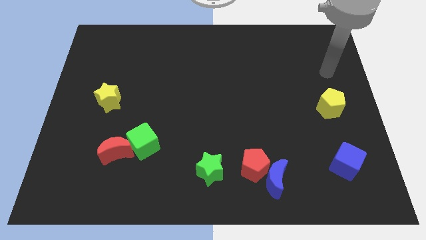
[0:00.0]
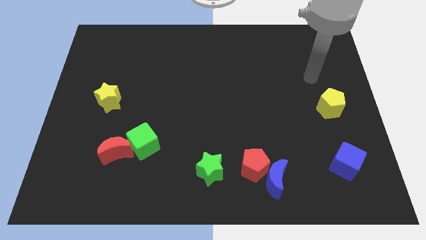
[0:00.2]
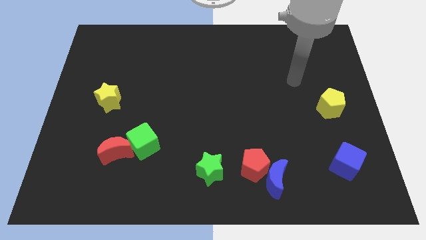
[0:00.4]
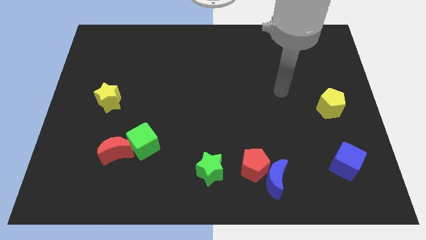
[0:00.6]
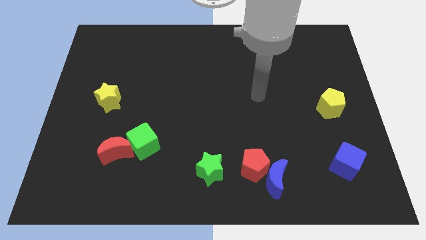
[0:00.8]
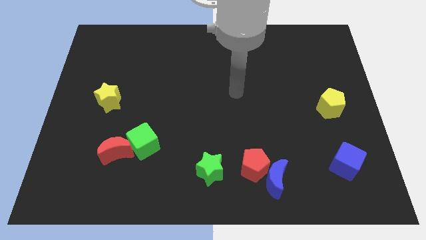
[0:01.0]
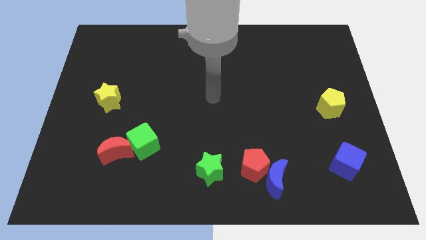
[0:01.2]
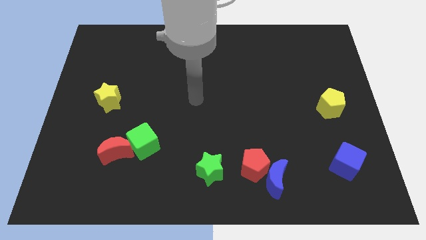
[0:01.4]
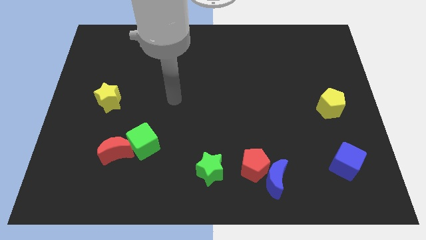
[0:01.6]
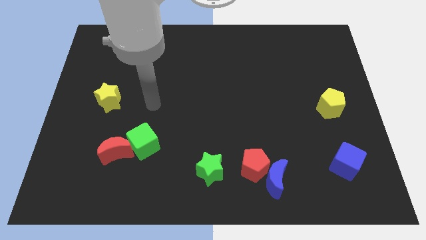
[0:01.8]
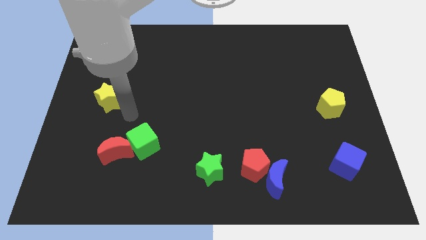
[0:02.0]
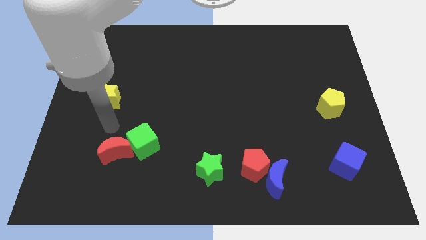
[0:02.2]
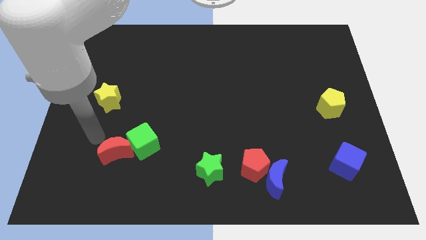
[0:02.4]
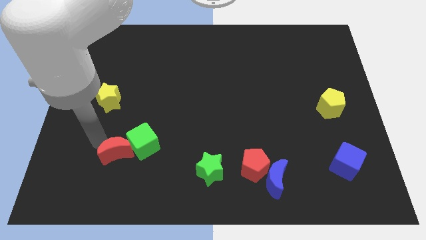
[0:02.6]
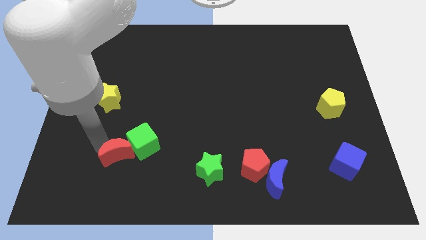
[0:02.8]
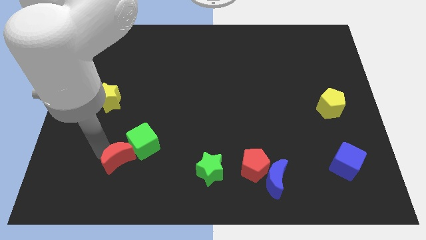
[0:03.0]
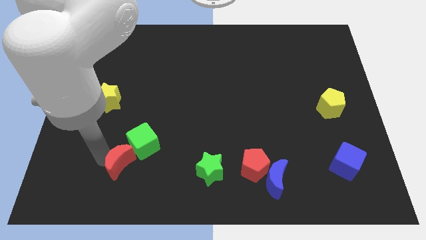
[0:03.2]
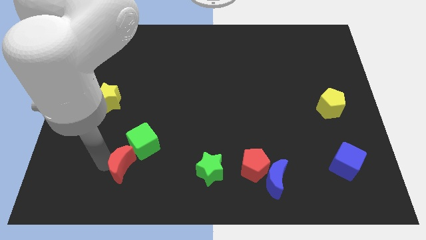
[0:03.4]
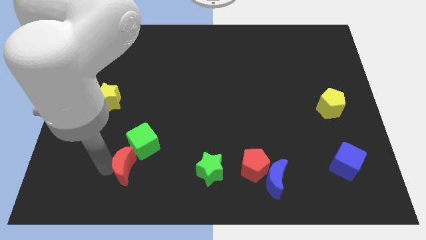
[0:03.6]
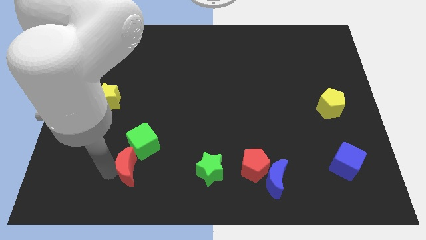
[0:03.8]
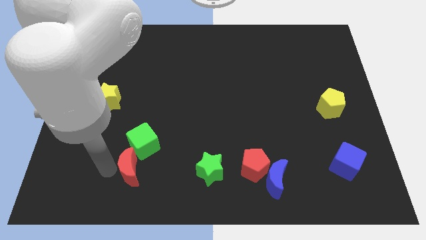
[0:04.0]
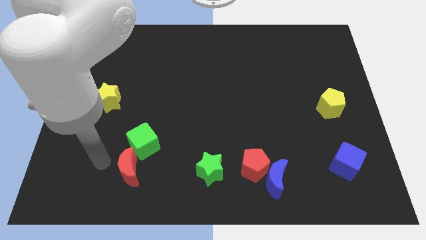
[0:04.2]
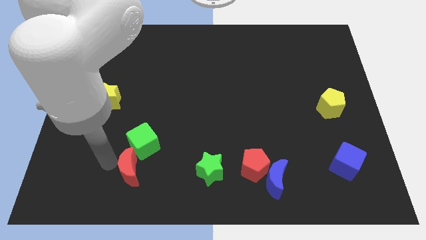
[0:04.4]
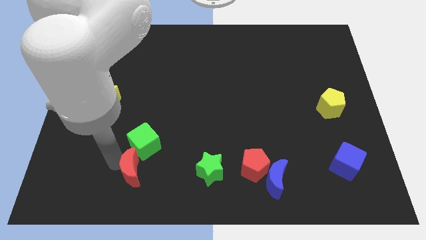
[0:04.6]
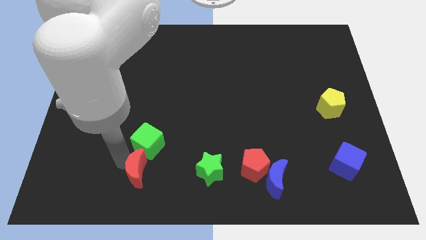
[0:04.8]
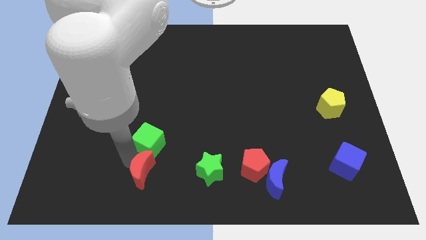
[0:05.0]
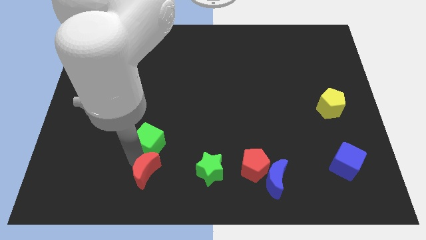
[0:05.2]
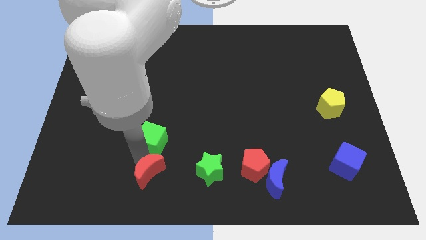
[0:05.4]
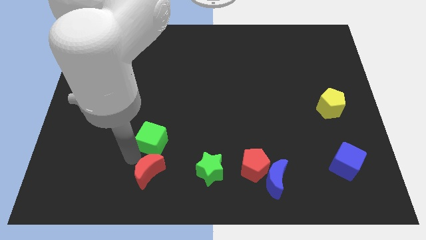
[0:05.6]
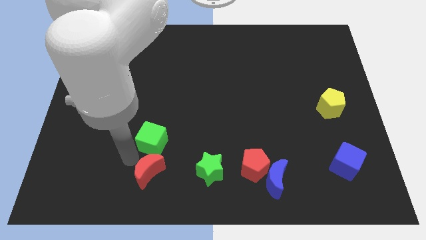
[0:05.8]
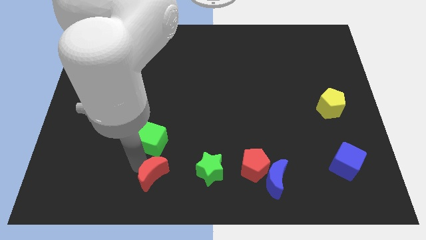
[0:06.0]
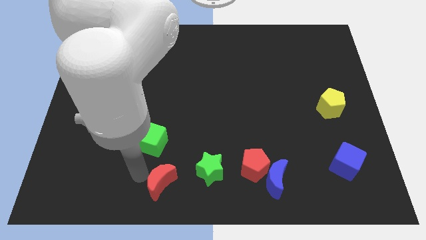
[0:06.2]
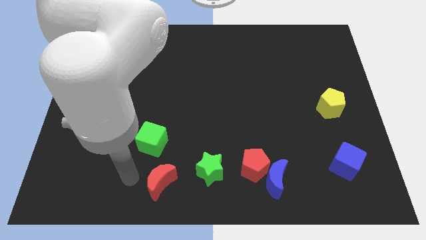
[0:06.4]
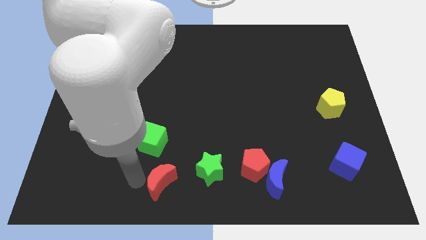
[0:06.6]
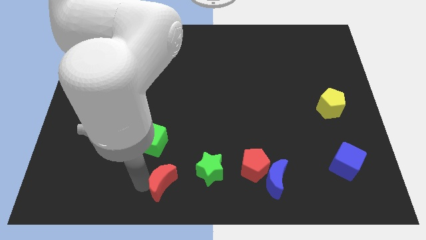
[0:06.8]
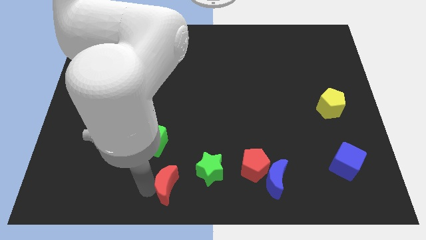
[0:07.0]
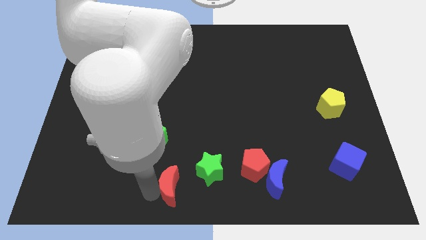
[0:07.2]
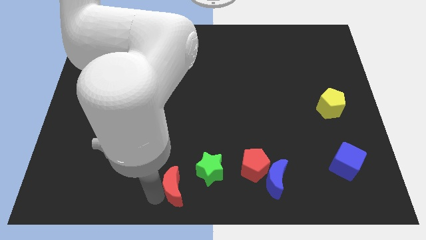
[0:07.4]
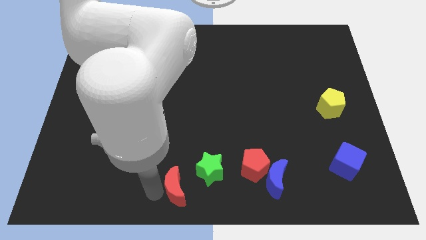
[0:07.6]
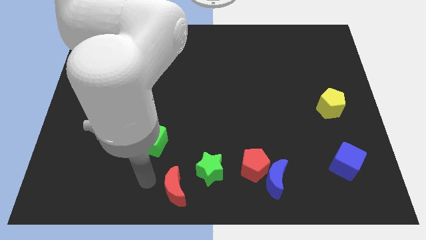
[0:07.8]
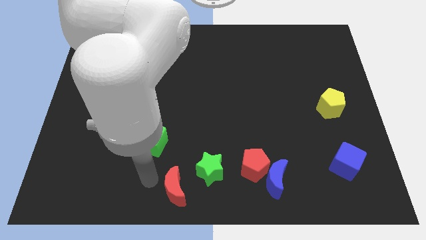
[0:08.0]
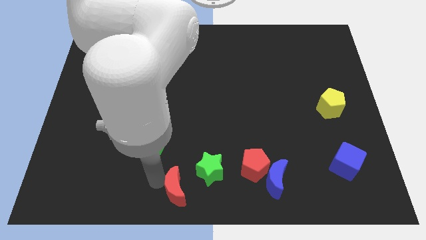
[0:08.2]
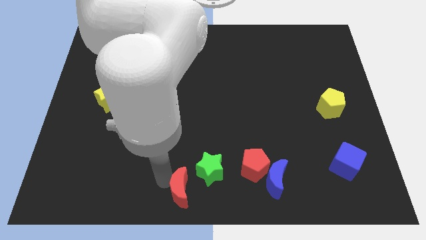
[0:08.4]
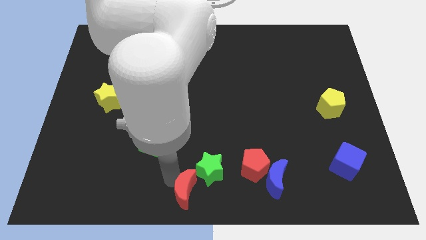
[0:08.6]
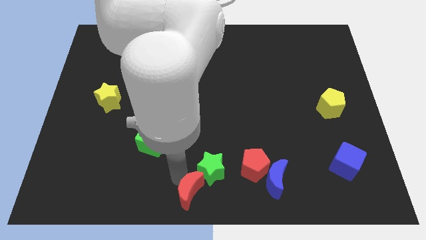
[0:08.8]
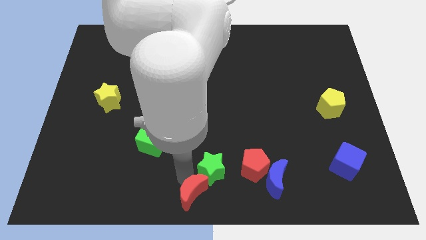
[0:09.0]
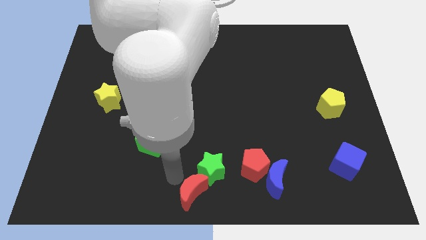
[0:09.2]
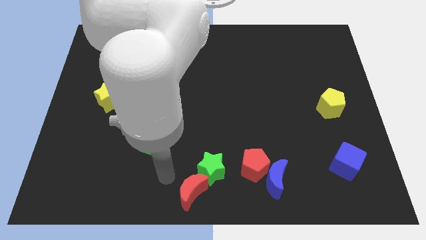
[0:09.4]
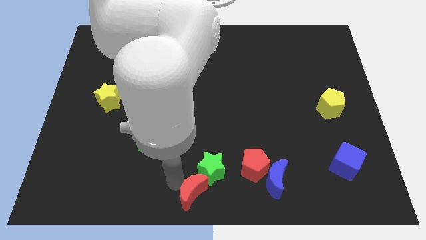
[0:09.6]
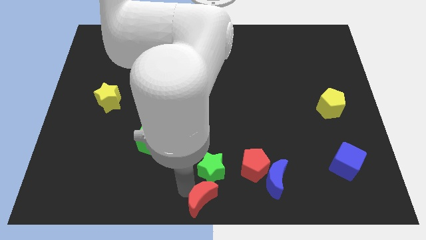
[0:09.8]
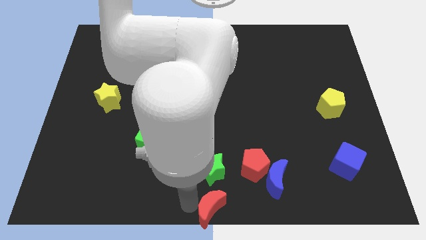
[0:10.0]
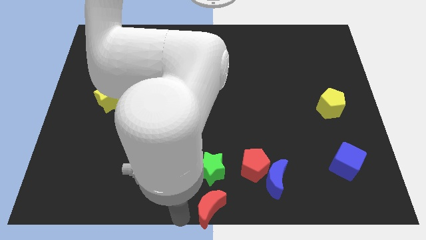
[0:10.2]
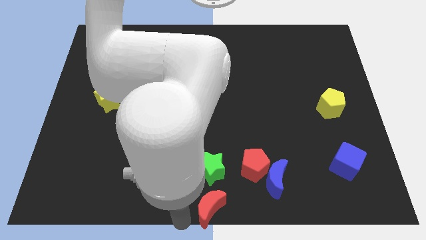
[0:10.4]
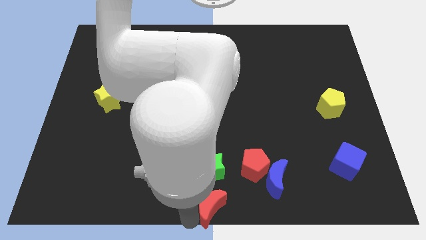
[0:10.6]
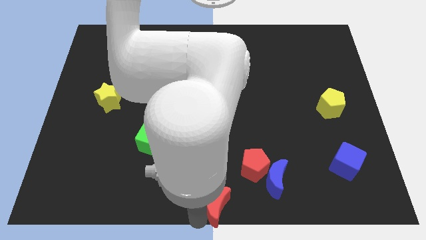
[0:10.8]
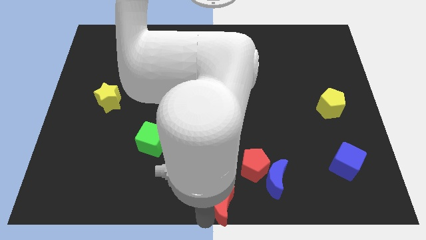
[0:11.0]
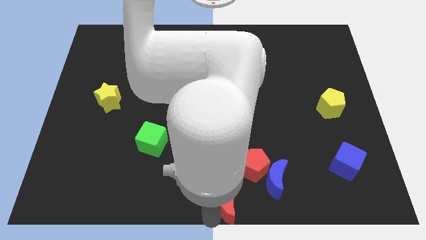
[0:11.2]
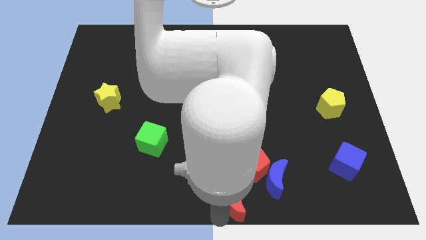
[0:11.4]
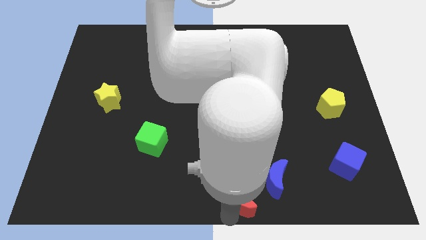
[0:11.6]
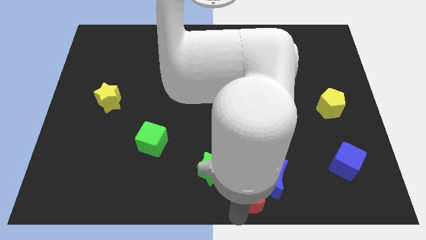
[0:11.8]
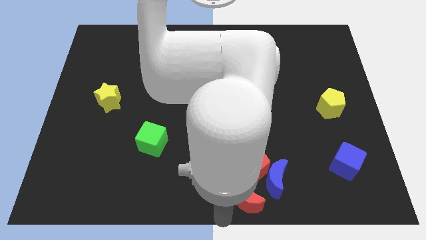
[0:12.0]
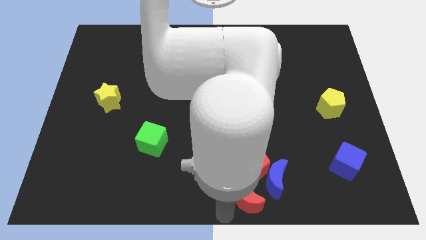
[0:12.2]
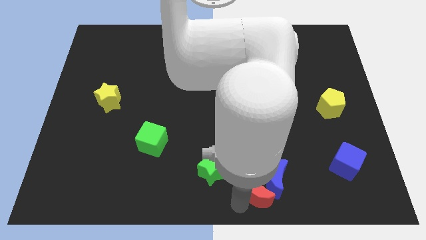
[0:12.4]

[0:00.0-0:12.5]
push the red moon towards the blue moon
